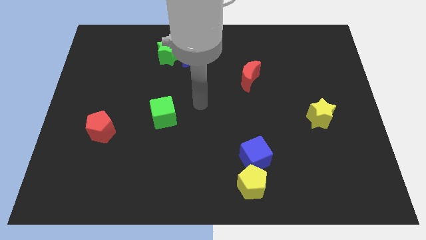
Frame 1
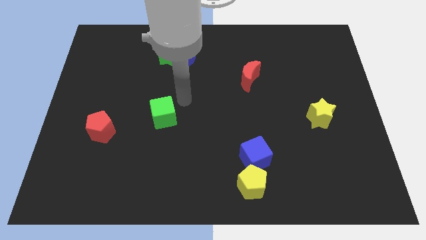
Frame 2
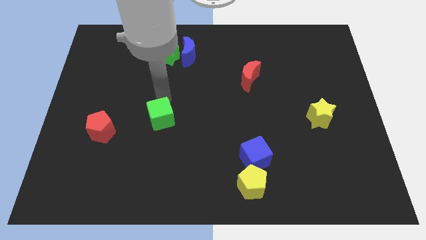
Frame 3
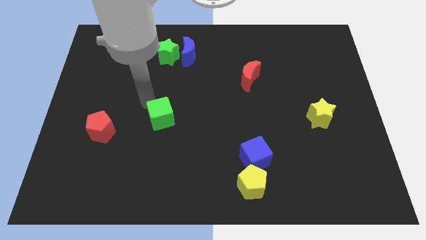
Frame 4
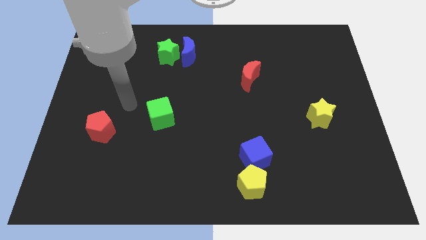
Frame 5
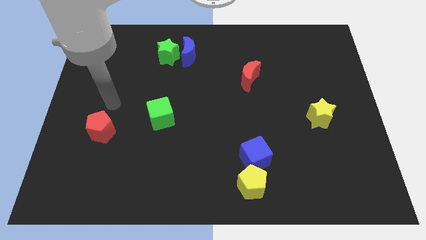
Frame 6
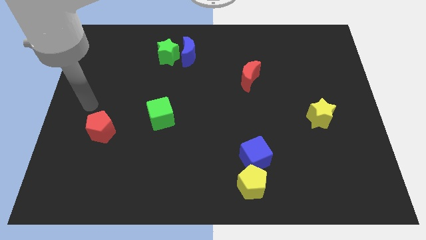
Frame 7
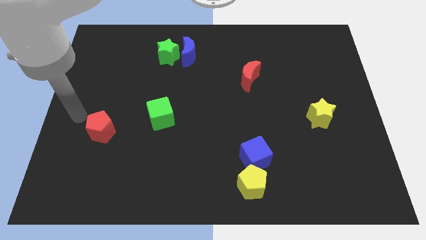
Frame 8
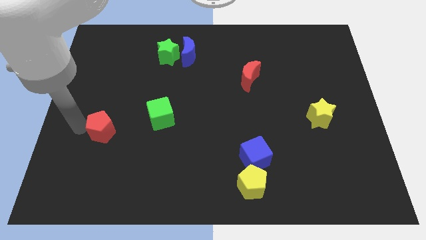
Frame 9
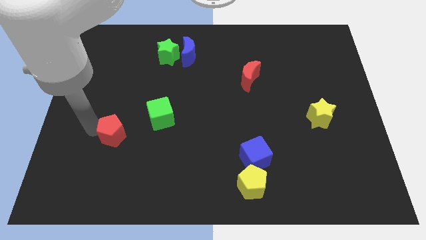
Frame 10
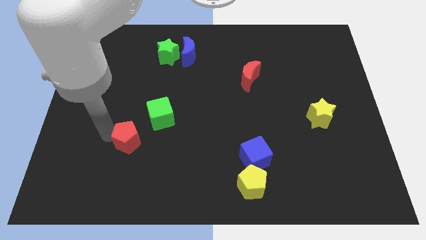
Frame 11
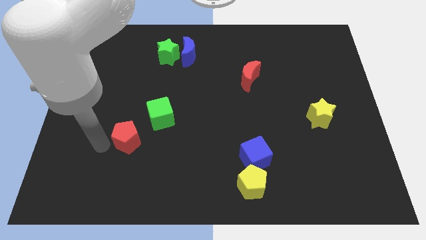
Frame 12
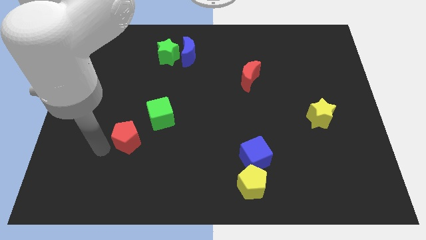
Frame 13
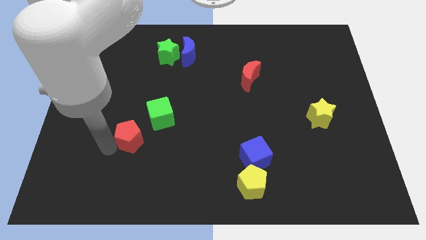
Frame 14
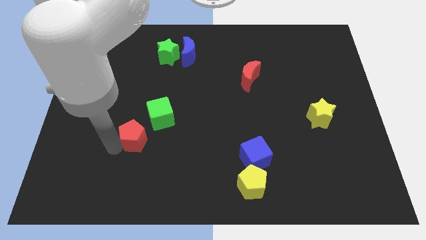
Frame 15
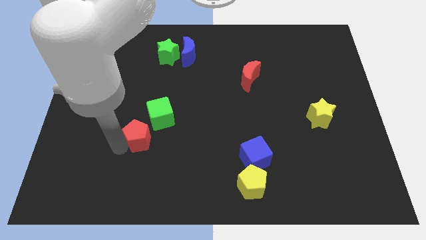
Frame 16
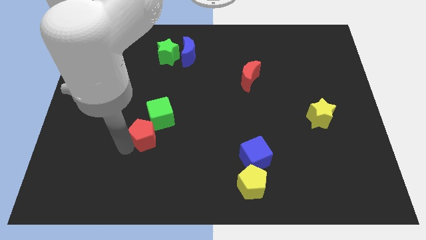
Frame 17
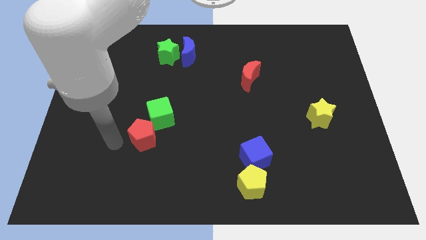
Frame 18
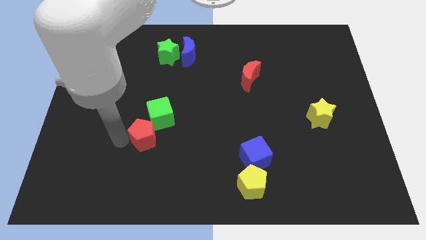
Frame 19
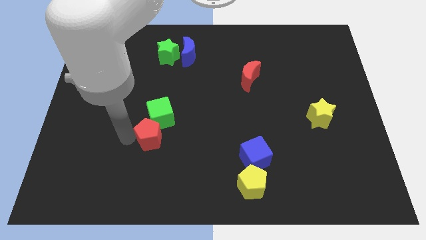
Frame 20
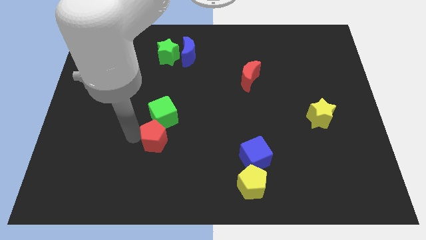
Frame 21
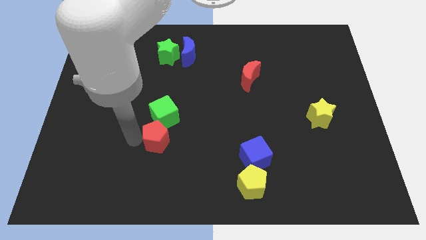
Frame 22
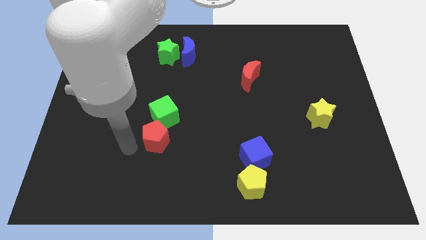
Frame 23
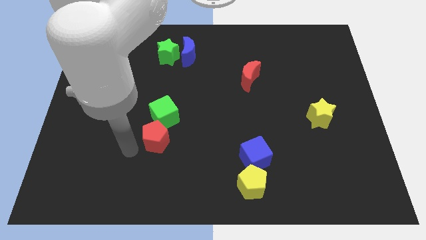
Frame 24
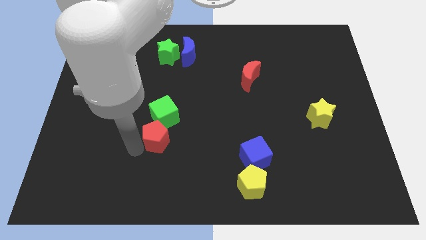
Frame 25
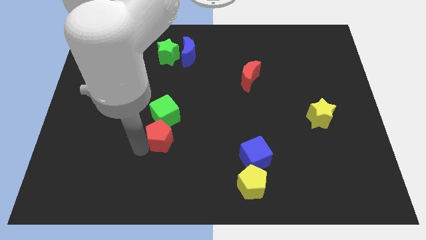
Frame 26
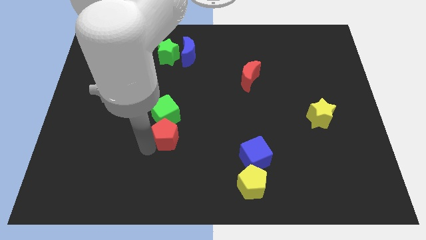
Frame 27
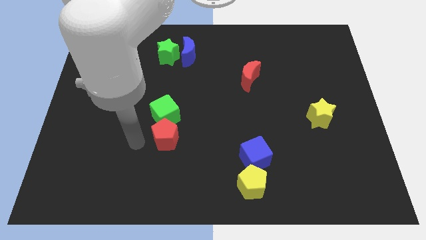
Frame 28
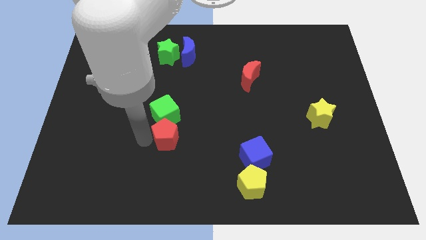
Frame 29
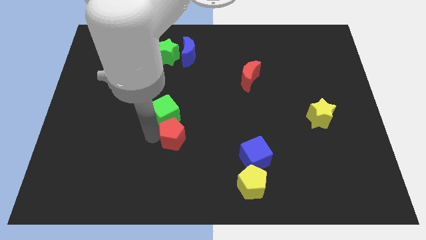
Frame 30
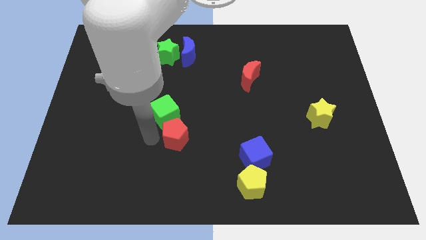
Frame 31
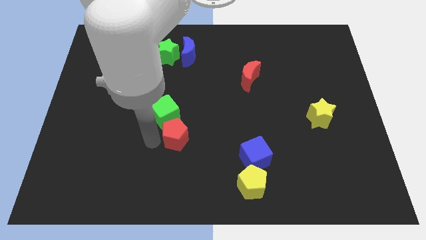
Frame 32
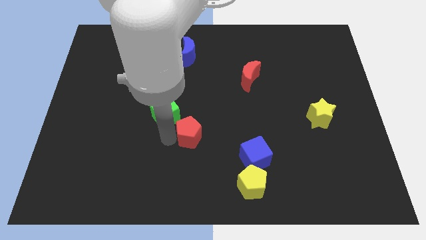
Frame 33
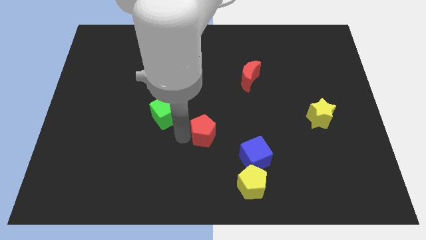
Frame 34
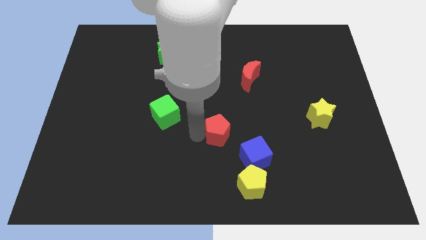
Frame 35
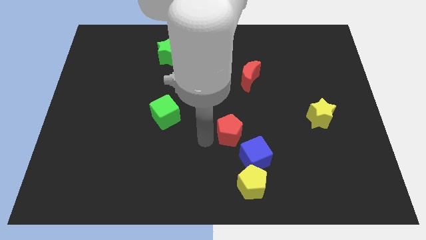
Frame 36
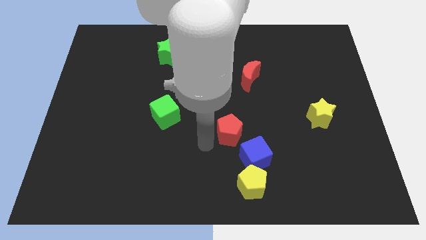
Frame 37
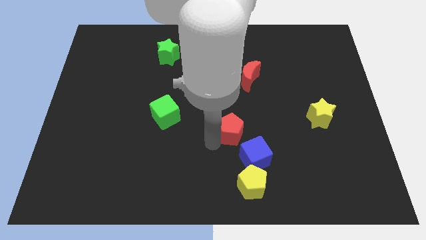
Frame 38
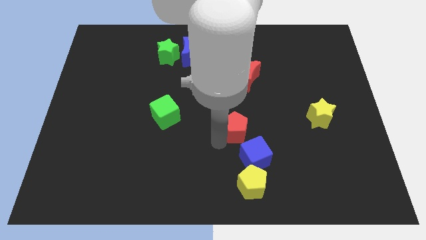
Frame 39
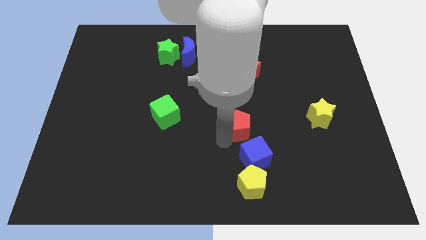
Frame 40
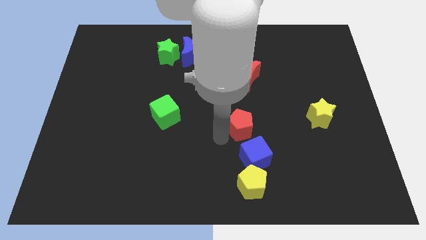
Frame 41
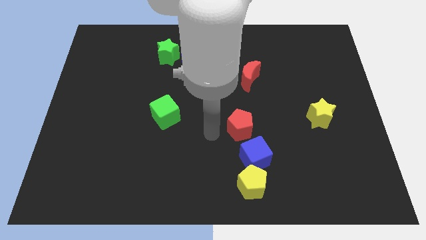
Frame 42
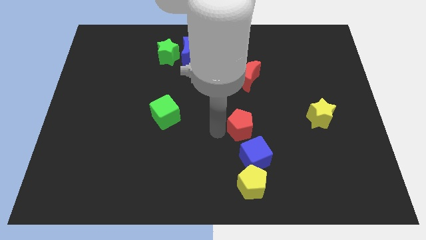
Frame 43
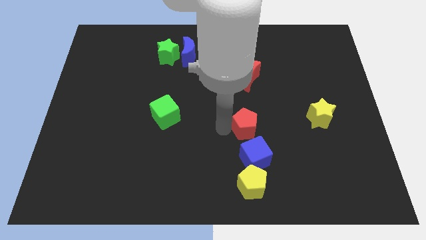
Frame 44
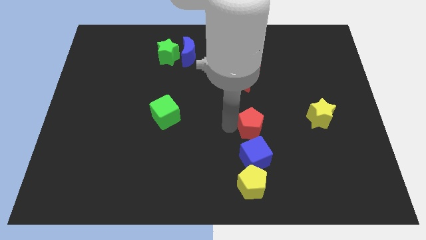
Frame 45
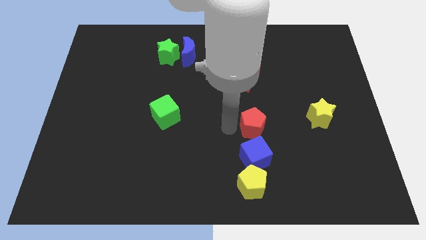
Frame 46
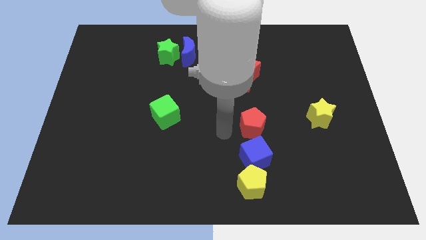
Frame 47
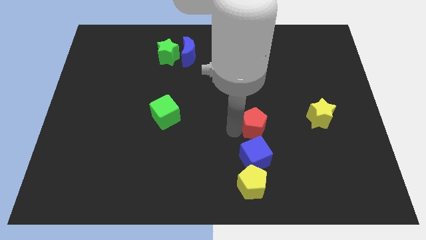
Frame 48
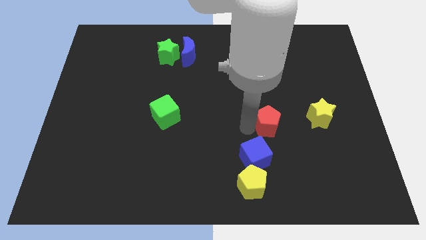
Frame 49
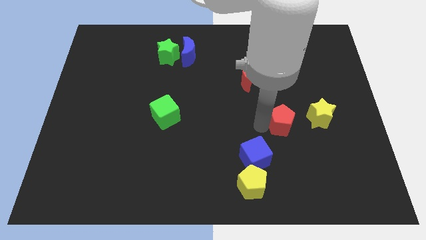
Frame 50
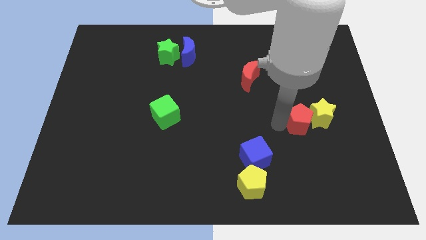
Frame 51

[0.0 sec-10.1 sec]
push the red pentagon close to the yellow star

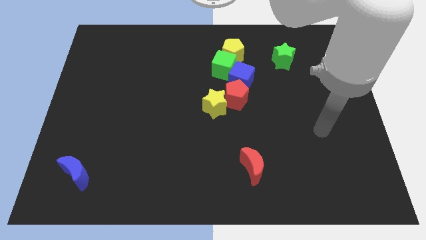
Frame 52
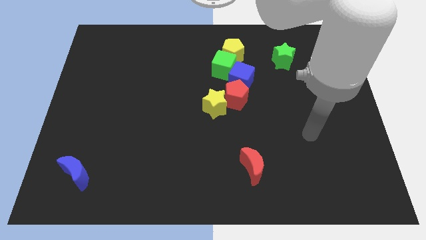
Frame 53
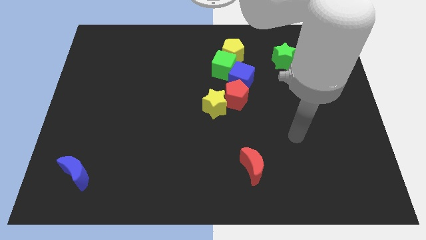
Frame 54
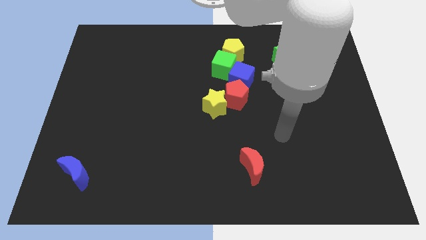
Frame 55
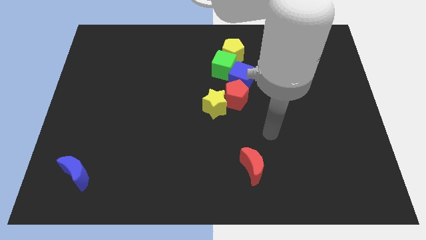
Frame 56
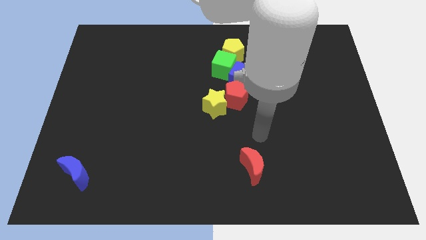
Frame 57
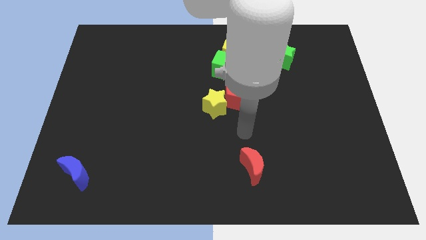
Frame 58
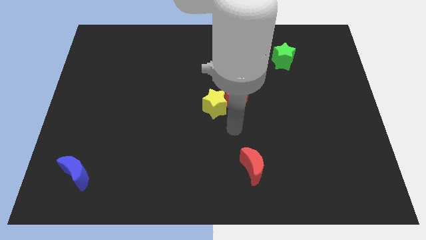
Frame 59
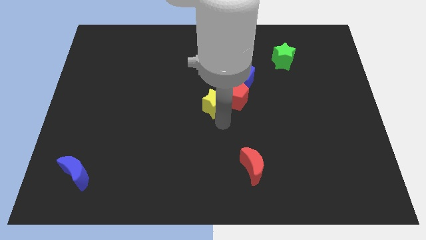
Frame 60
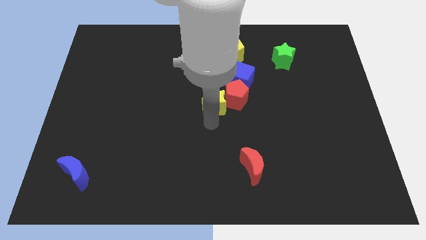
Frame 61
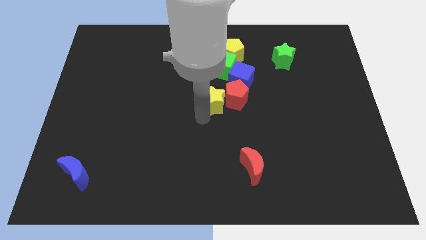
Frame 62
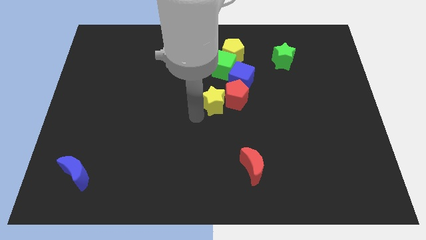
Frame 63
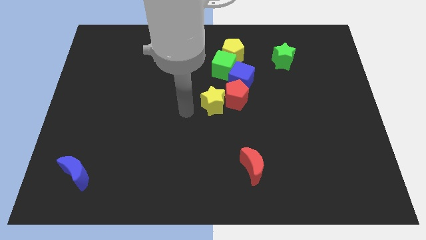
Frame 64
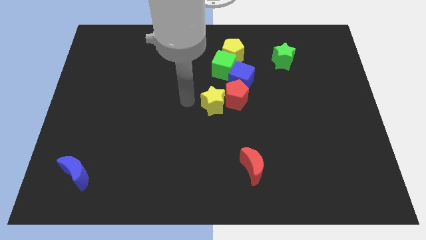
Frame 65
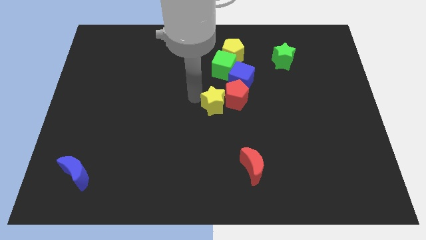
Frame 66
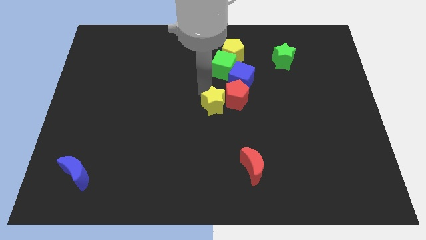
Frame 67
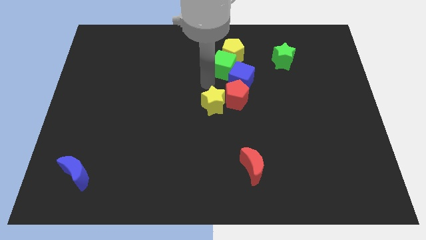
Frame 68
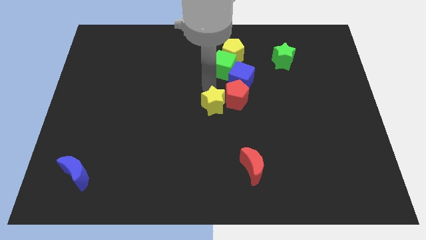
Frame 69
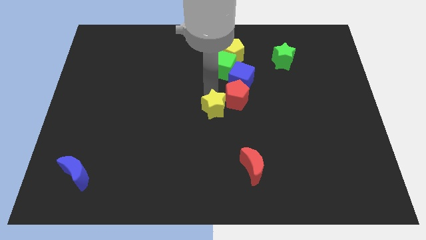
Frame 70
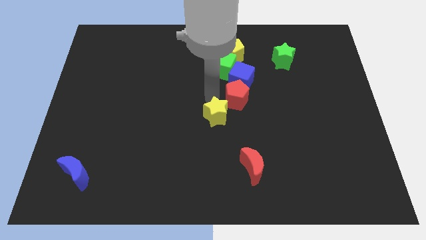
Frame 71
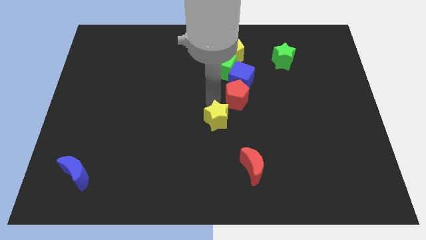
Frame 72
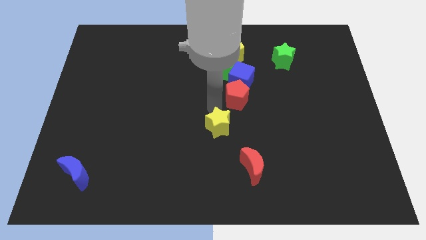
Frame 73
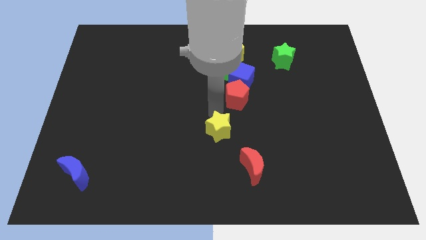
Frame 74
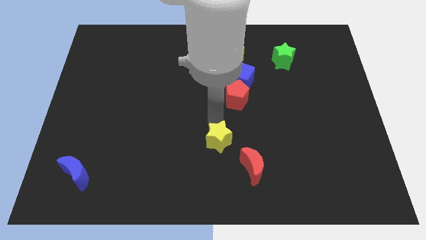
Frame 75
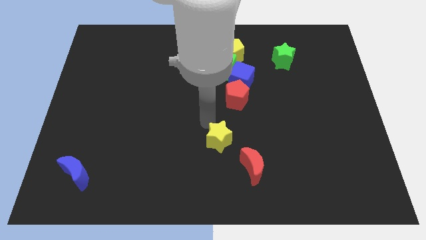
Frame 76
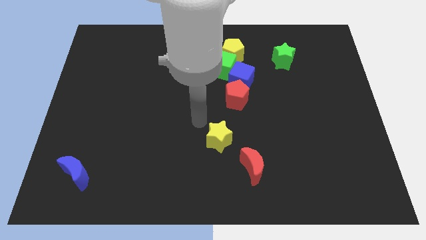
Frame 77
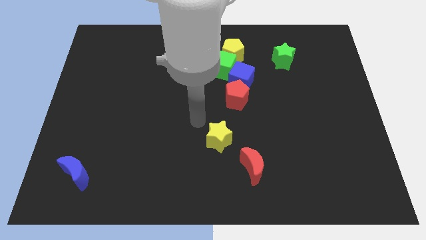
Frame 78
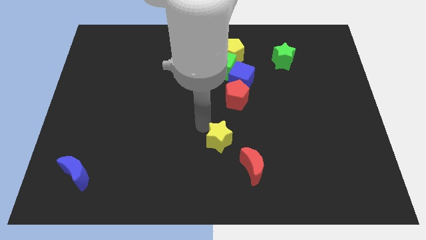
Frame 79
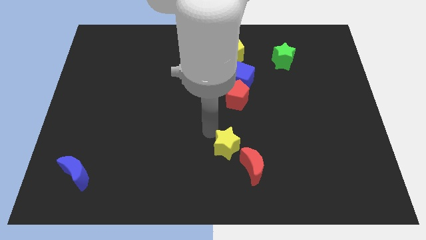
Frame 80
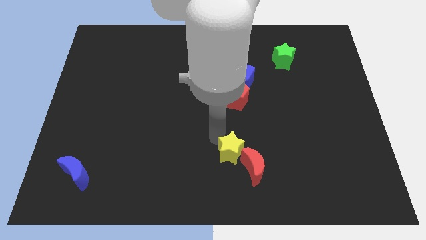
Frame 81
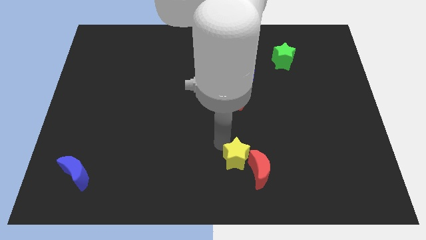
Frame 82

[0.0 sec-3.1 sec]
slide the yellow star close to the red moon
